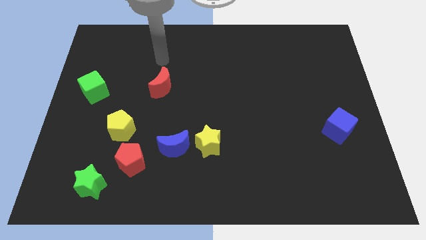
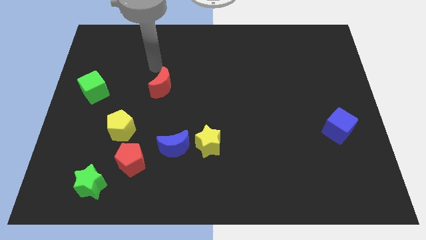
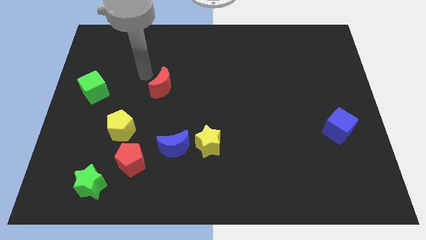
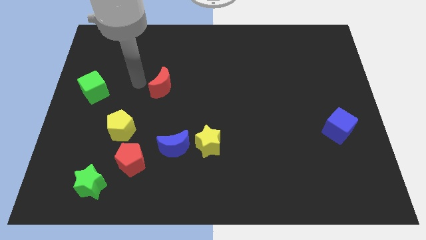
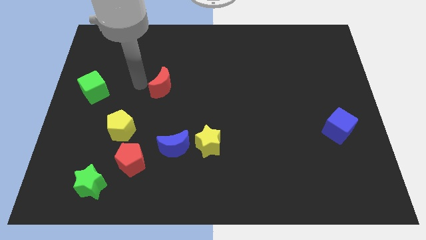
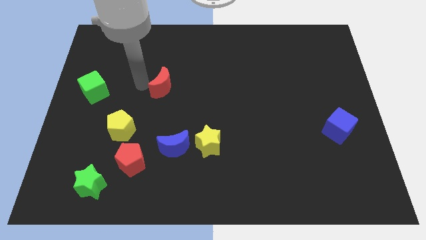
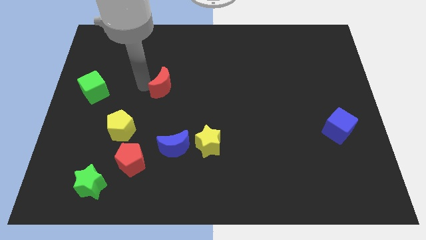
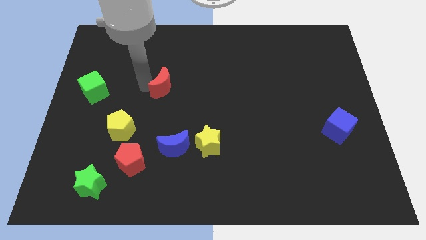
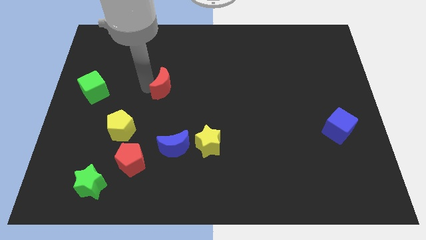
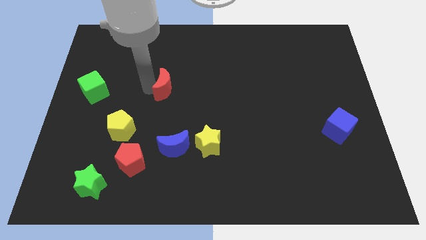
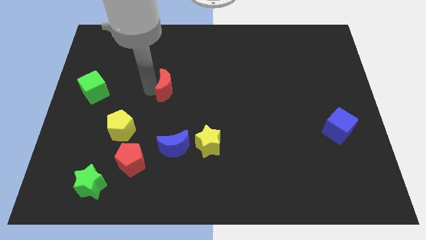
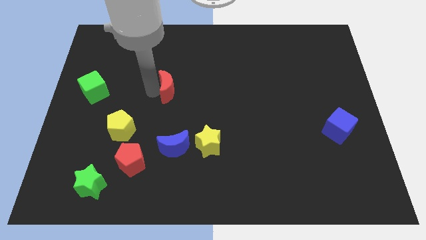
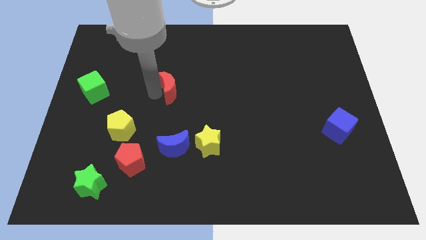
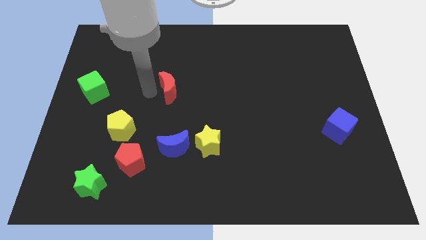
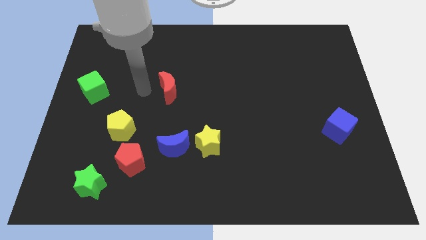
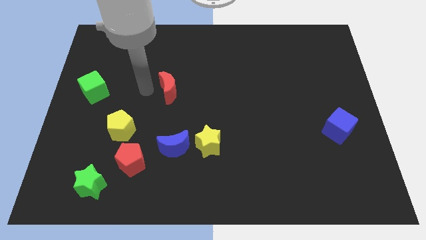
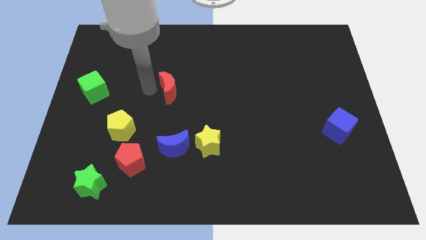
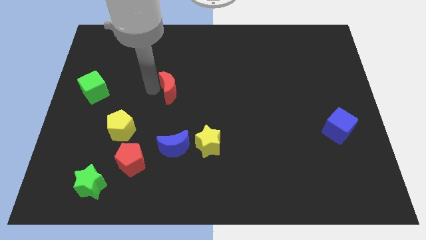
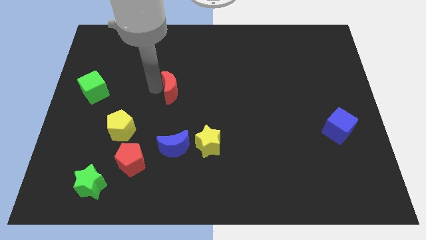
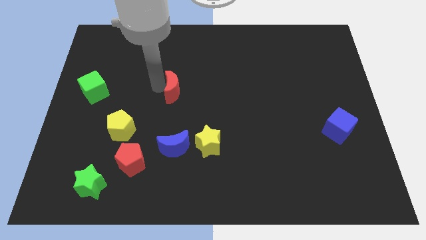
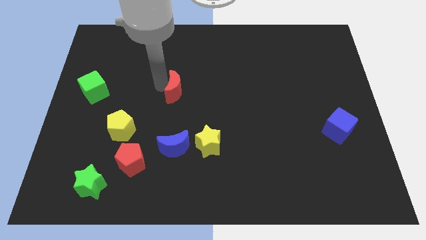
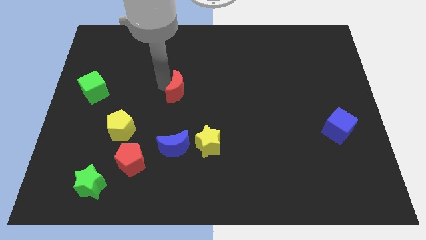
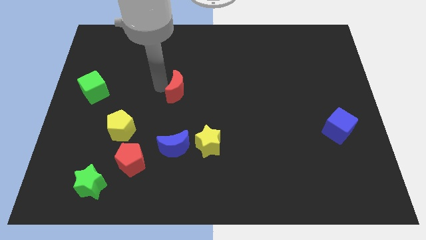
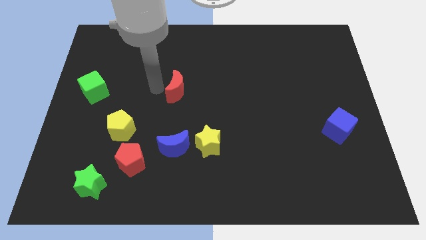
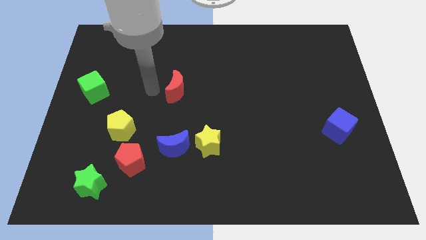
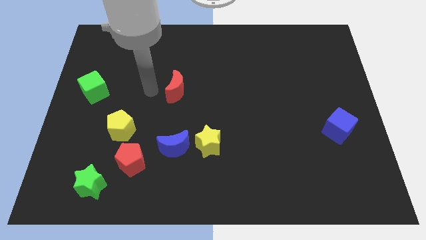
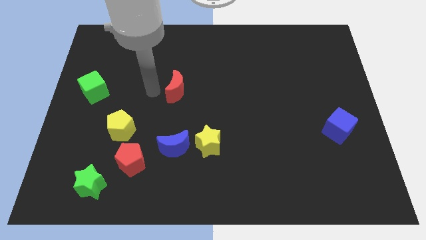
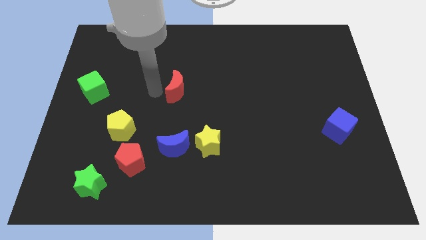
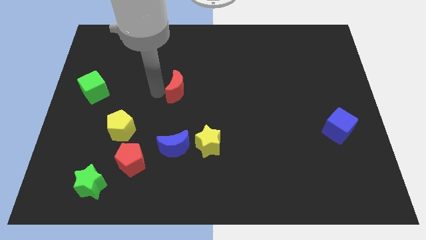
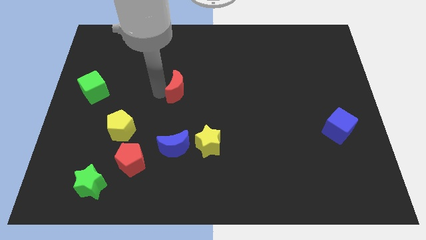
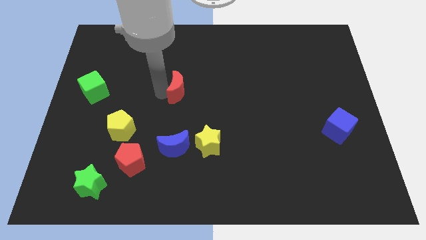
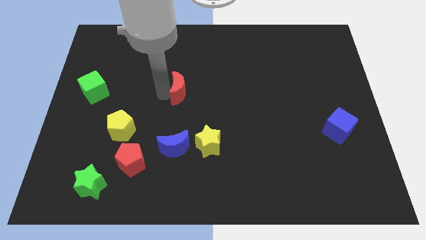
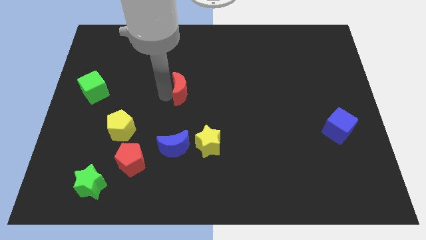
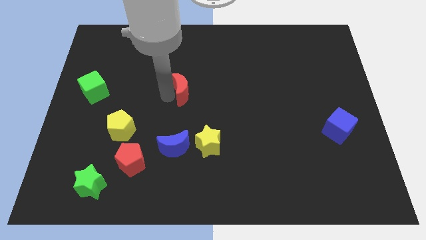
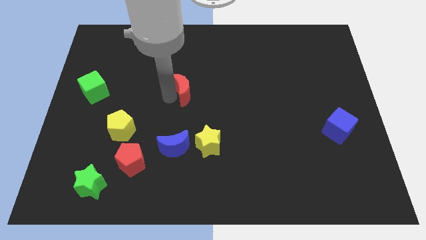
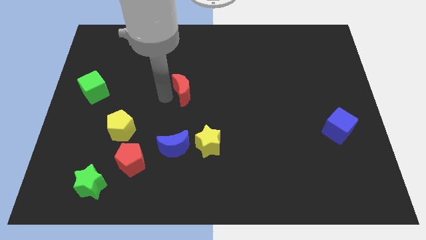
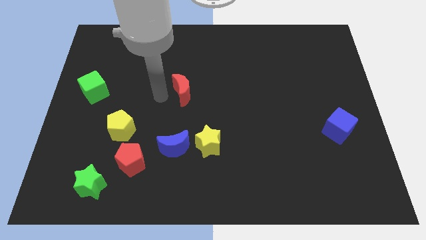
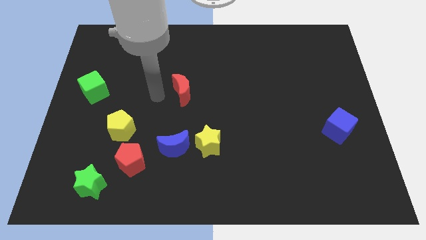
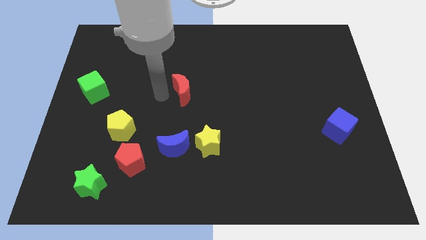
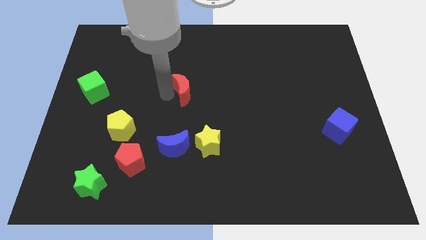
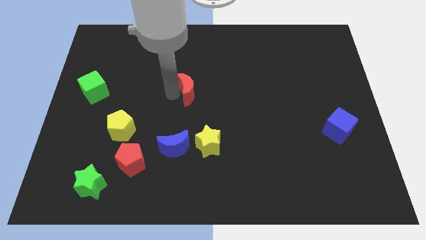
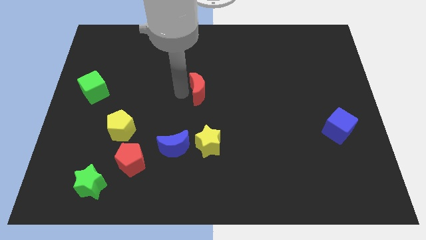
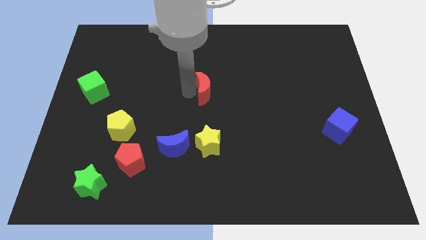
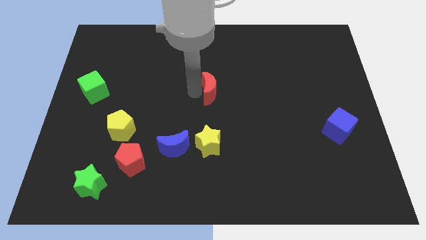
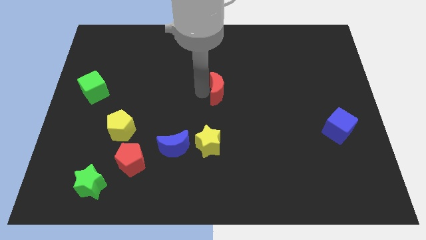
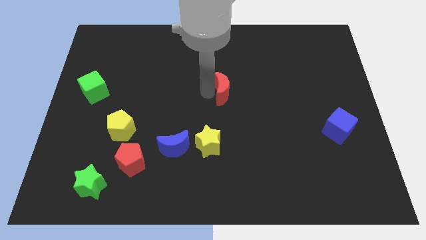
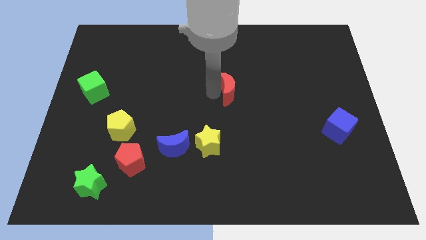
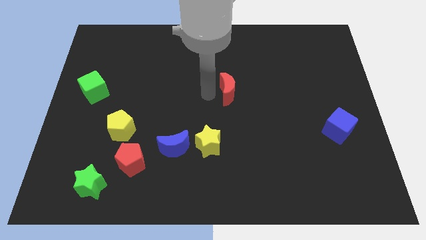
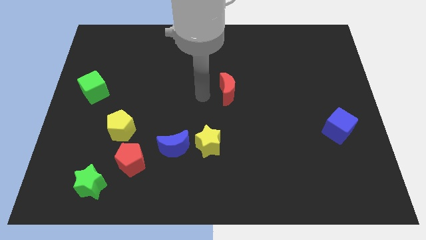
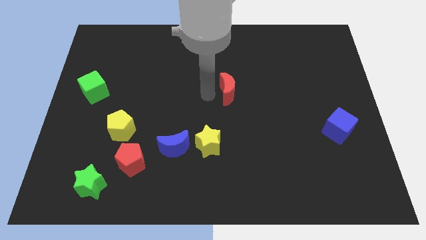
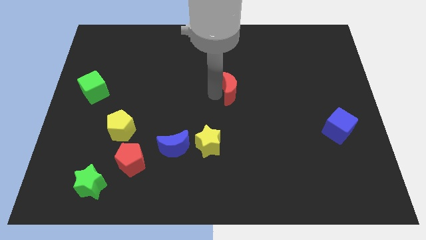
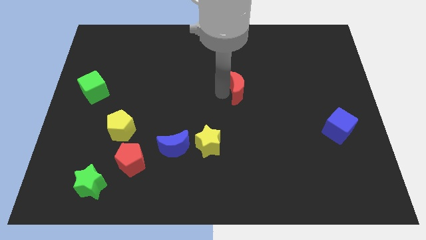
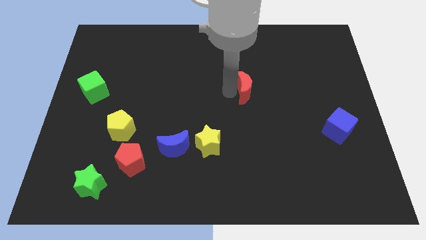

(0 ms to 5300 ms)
push the red moon to the right

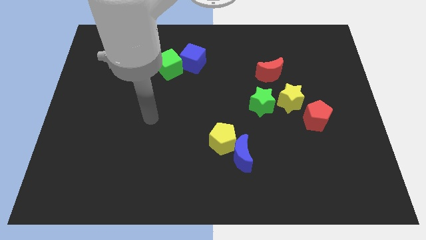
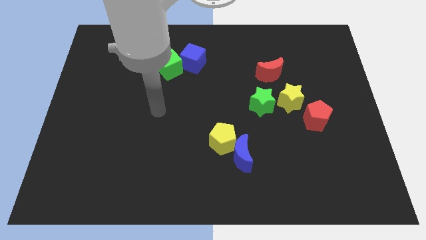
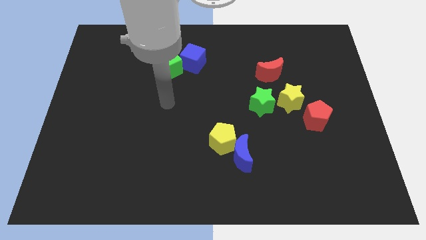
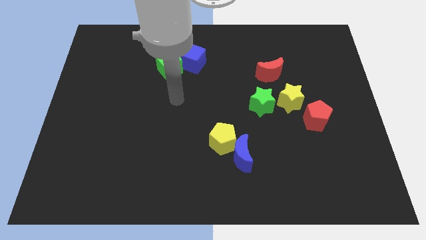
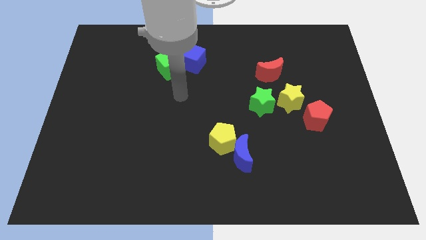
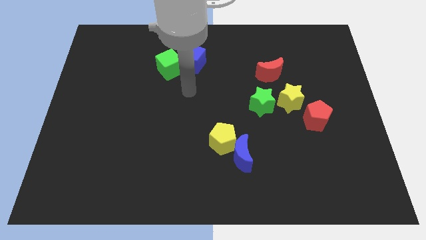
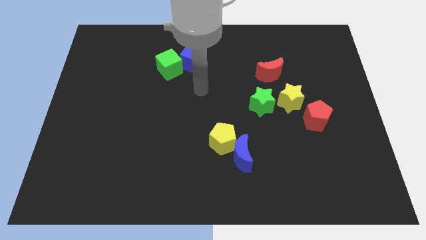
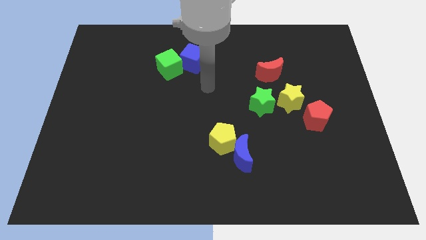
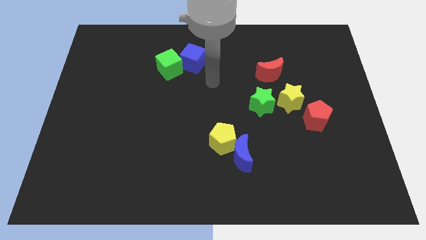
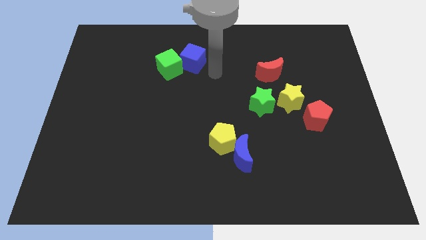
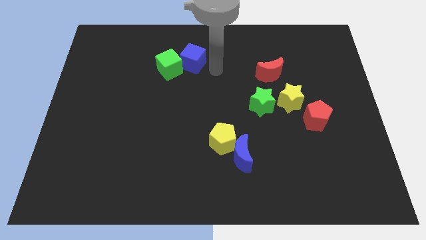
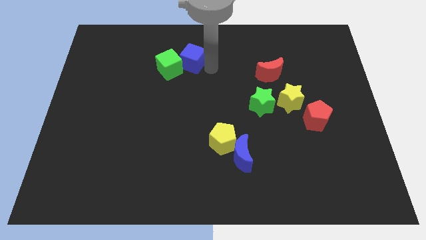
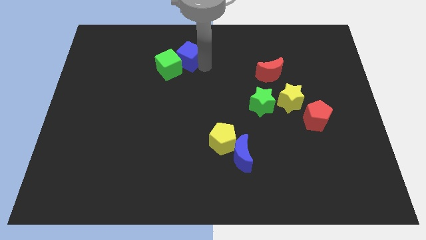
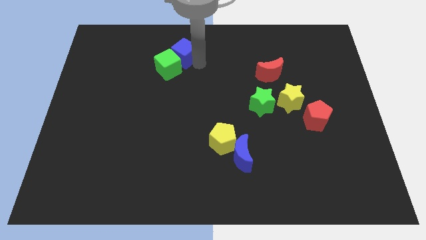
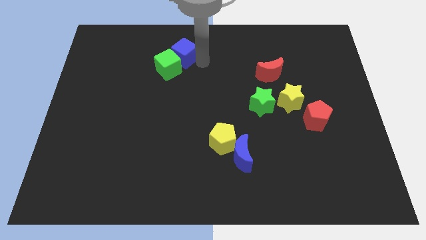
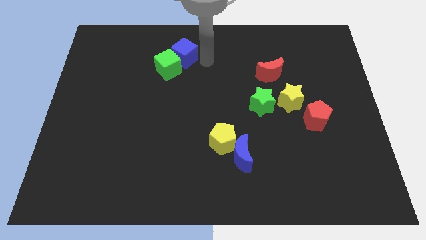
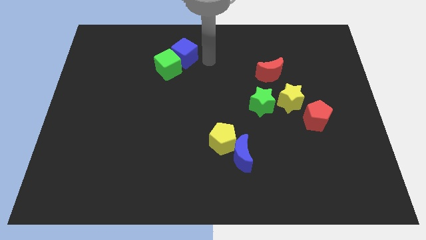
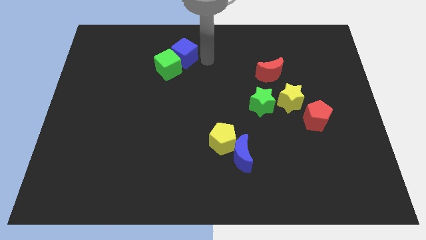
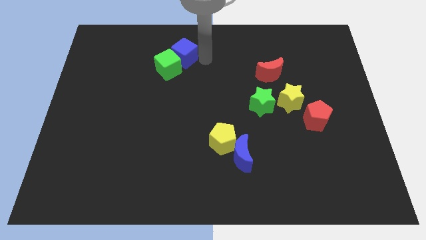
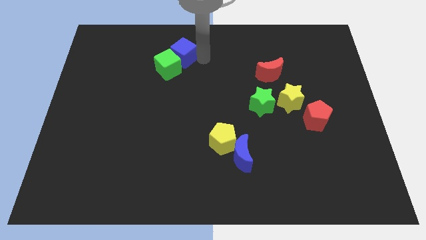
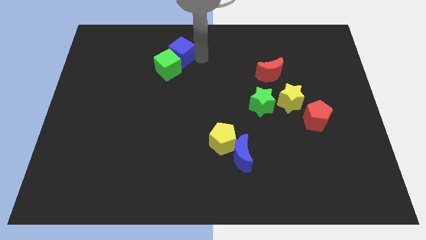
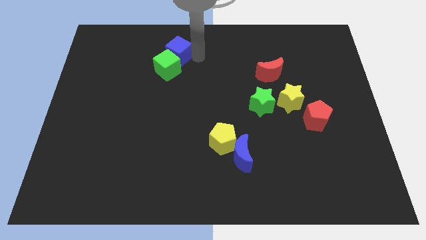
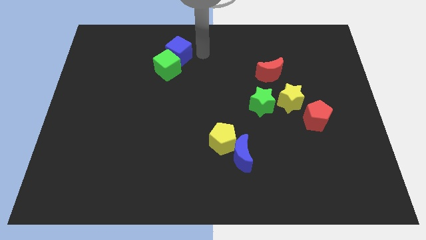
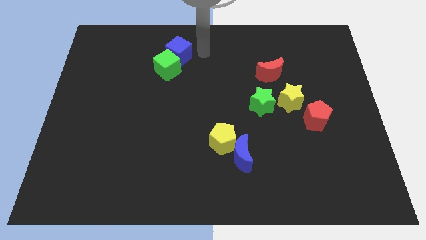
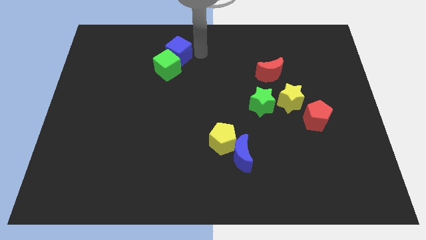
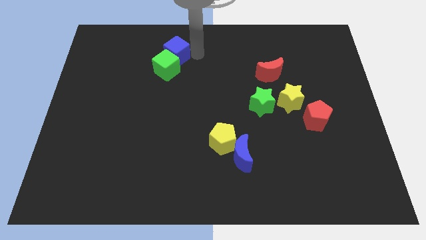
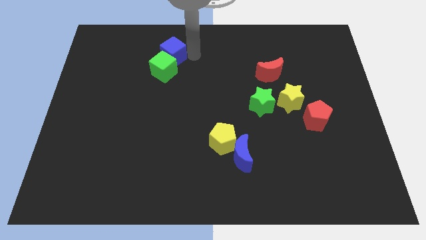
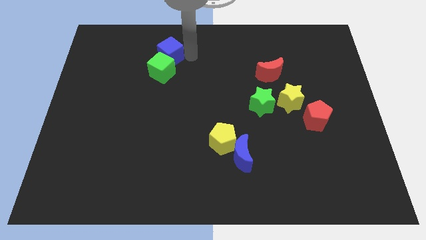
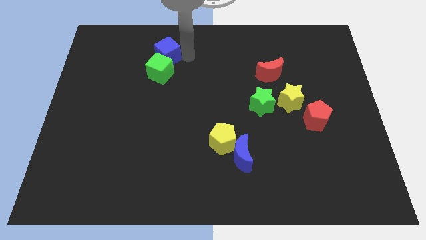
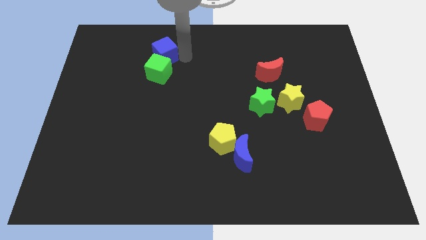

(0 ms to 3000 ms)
slightly move the blue cube left
